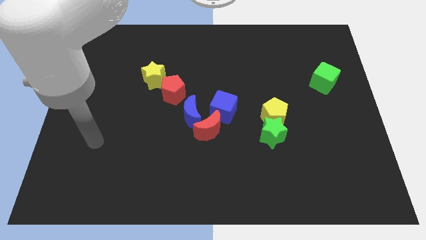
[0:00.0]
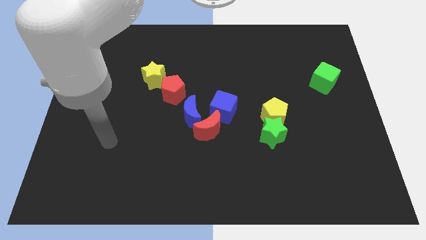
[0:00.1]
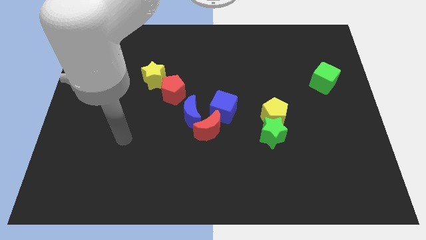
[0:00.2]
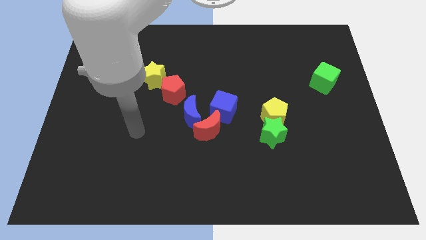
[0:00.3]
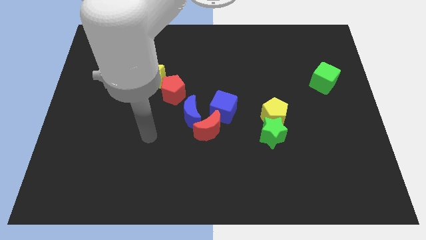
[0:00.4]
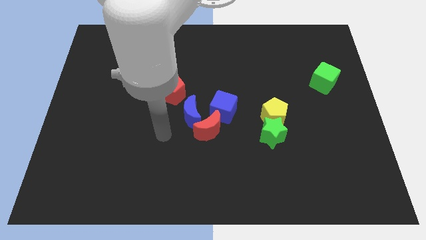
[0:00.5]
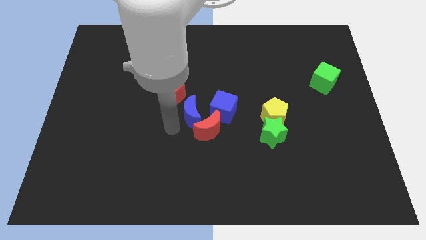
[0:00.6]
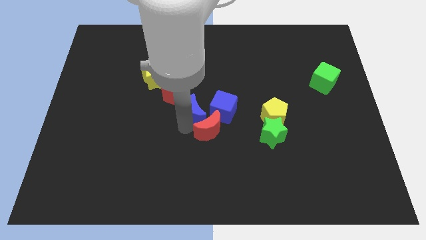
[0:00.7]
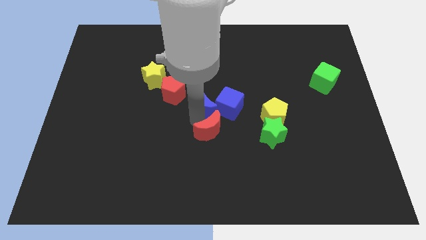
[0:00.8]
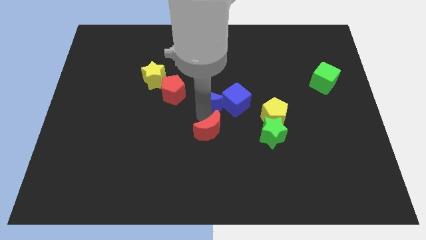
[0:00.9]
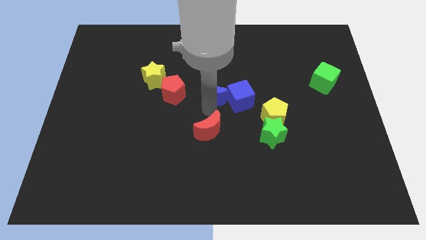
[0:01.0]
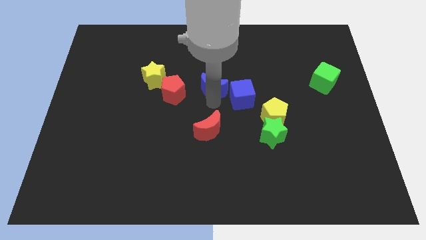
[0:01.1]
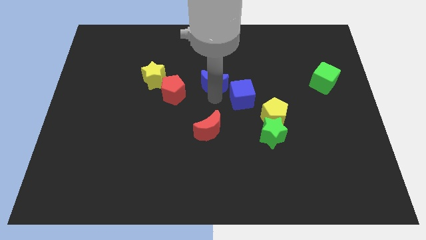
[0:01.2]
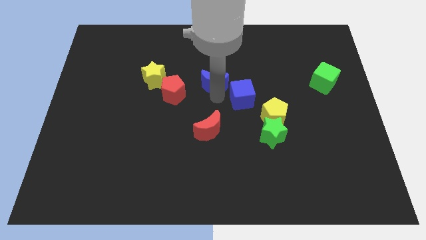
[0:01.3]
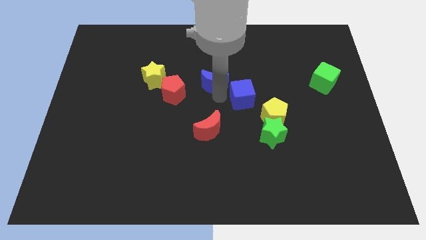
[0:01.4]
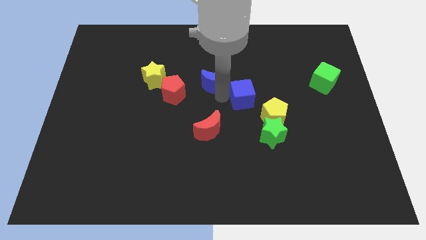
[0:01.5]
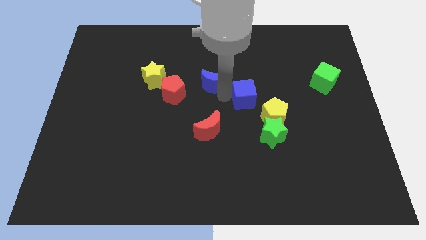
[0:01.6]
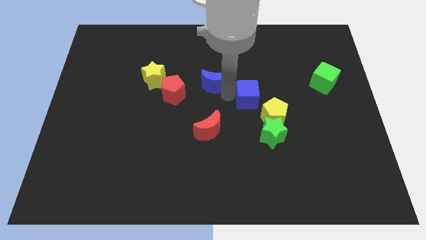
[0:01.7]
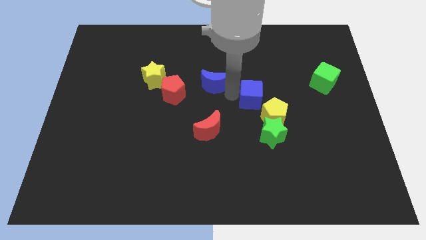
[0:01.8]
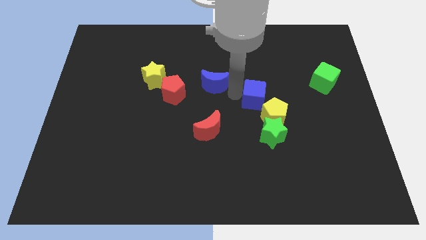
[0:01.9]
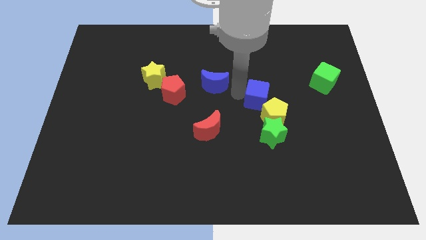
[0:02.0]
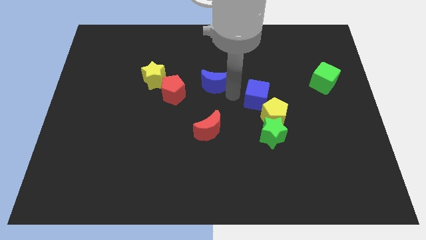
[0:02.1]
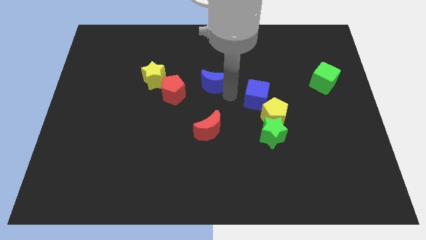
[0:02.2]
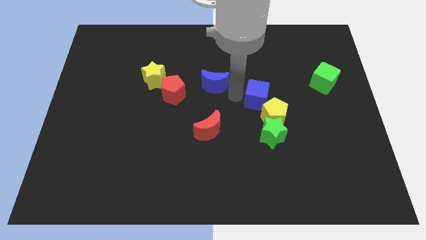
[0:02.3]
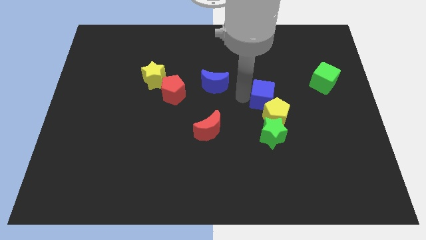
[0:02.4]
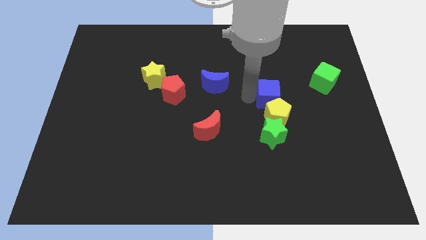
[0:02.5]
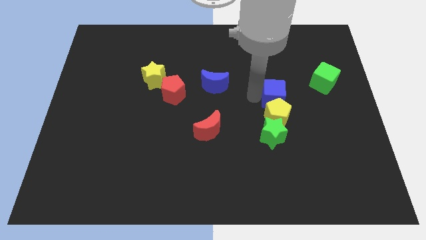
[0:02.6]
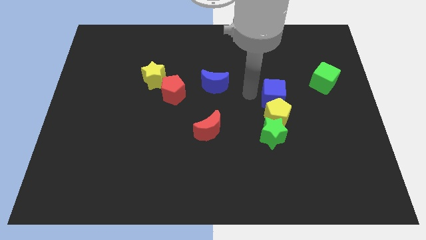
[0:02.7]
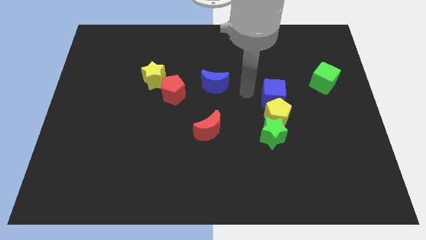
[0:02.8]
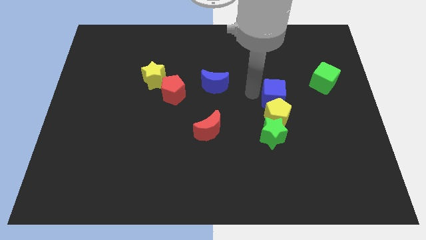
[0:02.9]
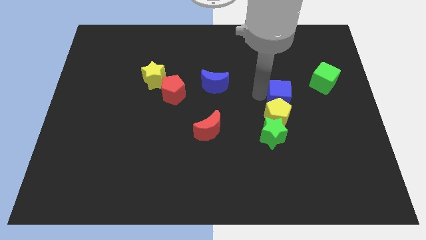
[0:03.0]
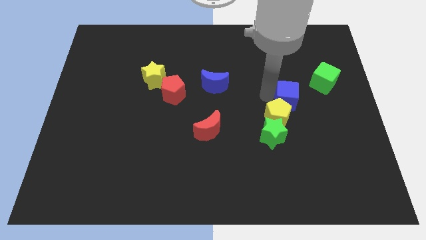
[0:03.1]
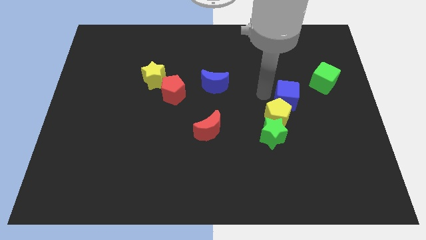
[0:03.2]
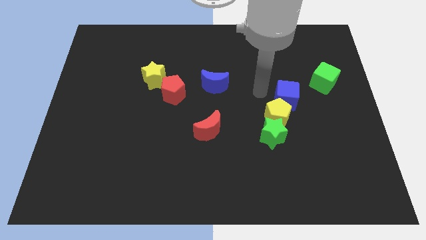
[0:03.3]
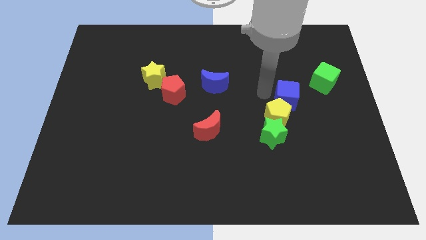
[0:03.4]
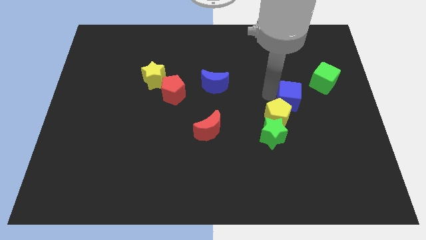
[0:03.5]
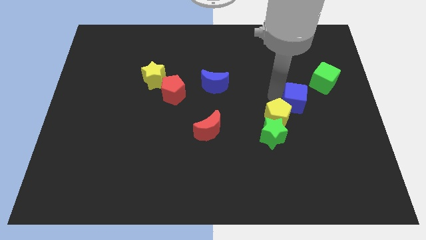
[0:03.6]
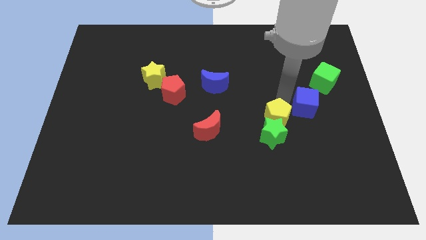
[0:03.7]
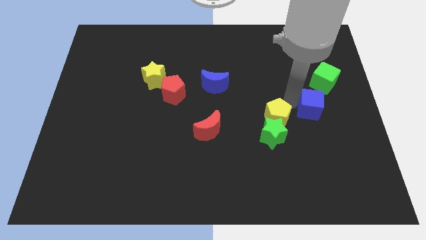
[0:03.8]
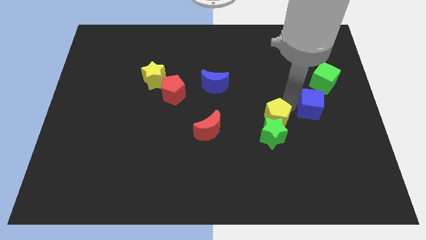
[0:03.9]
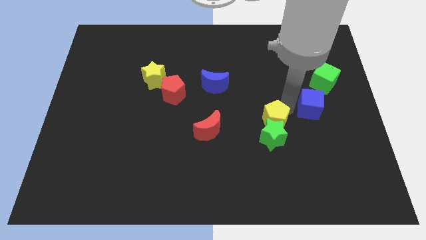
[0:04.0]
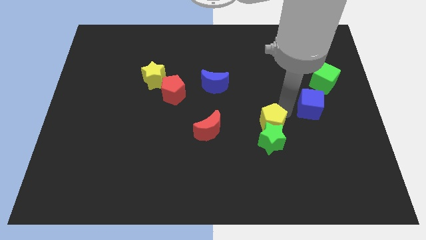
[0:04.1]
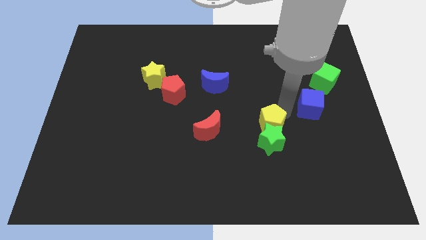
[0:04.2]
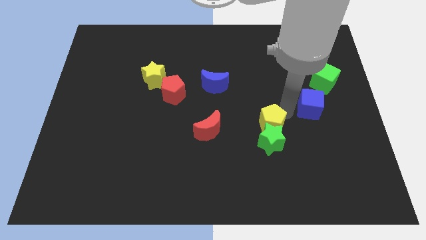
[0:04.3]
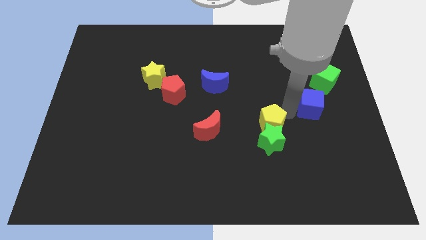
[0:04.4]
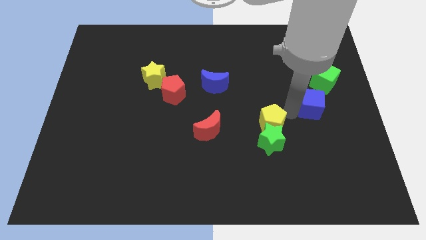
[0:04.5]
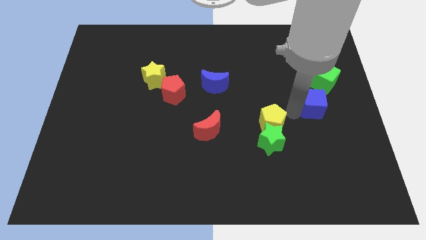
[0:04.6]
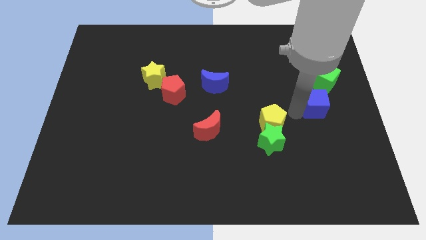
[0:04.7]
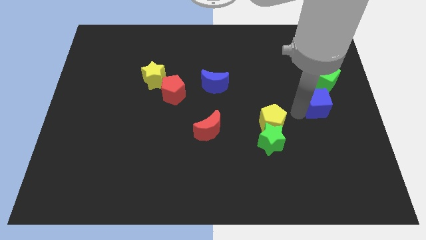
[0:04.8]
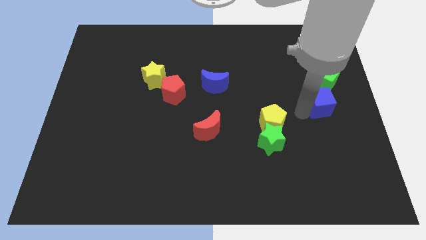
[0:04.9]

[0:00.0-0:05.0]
put the blue cube to the right side of the board

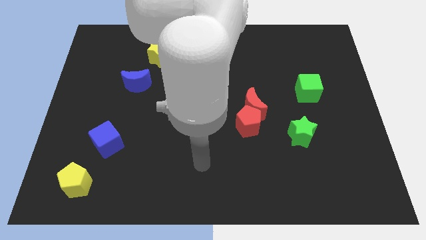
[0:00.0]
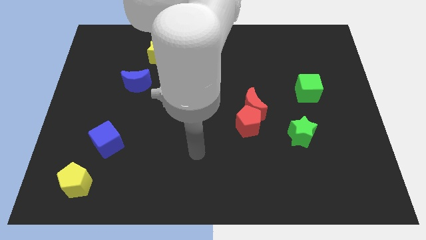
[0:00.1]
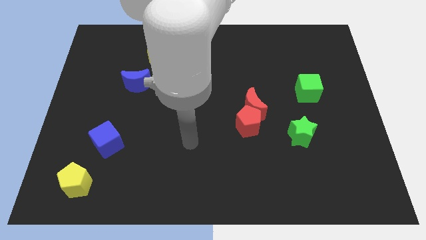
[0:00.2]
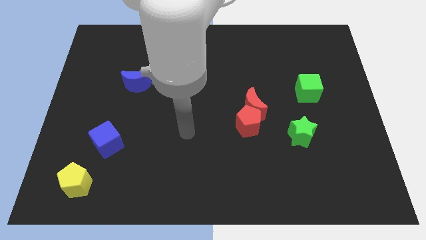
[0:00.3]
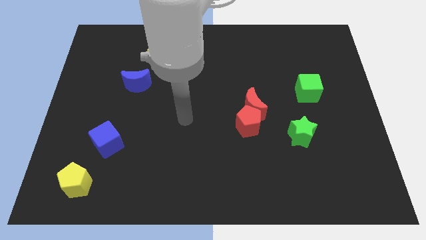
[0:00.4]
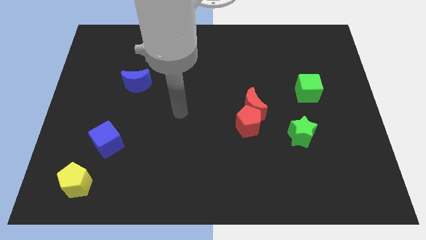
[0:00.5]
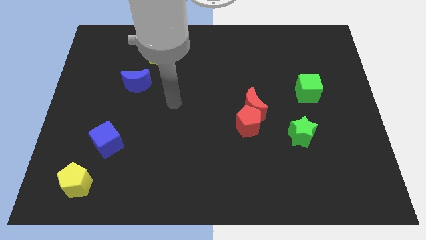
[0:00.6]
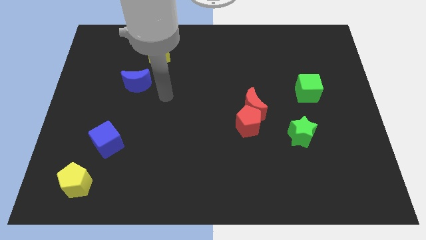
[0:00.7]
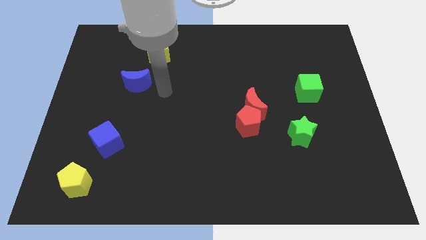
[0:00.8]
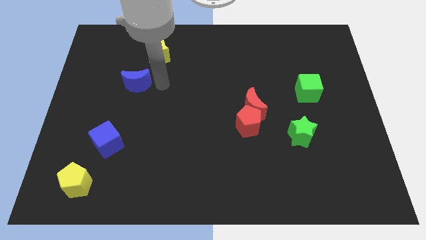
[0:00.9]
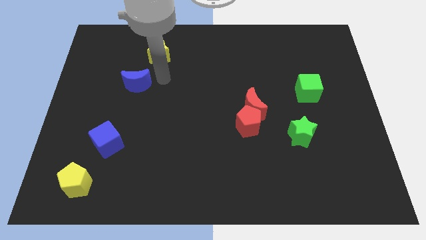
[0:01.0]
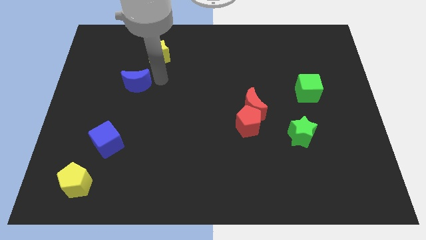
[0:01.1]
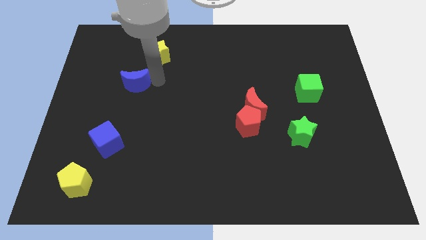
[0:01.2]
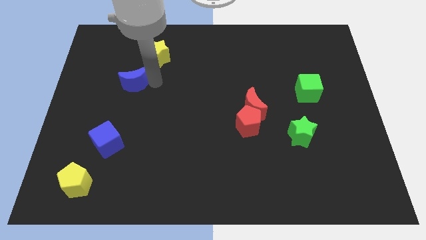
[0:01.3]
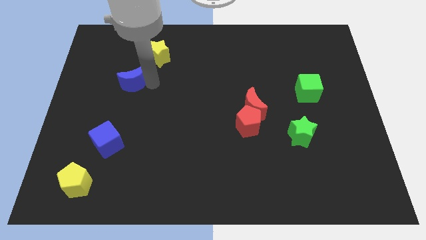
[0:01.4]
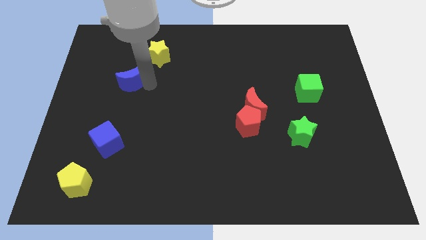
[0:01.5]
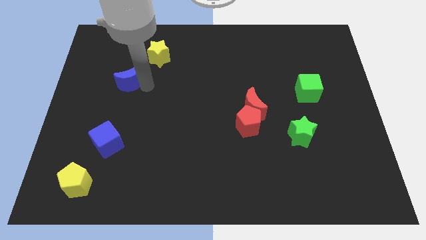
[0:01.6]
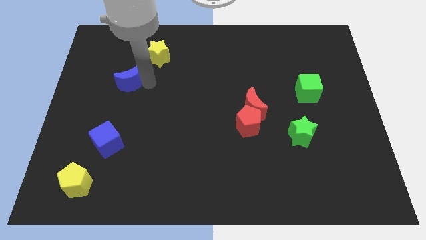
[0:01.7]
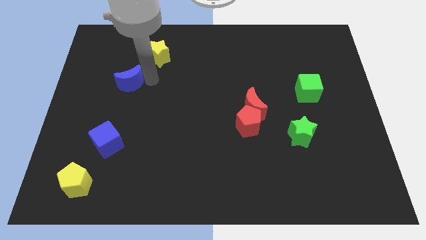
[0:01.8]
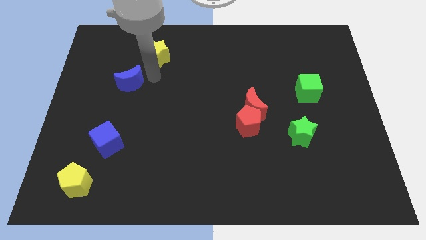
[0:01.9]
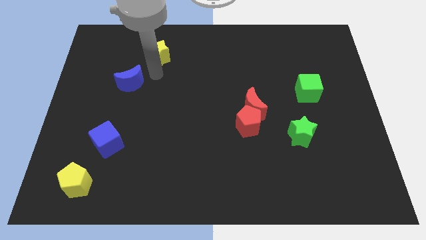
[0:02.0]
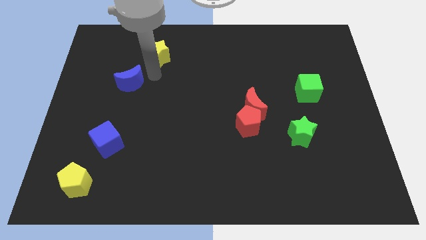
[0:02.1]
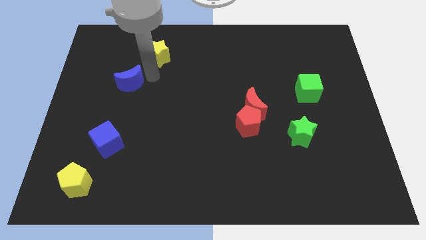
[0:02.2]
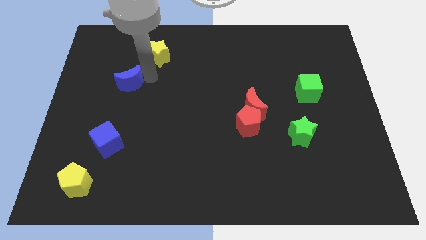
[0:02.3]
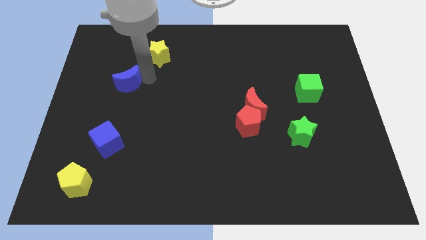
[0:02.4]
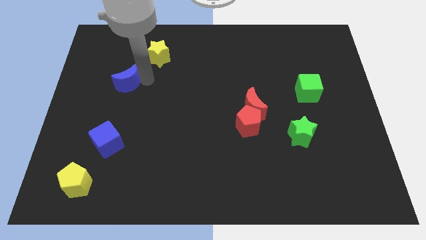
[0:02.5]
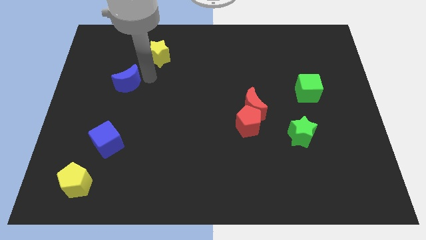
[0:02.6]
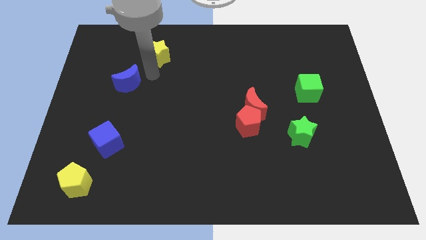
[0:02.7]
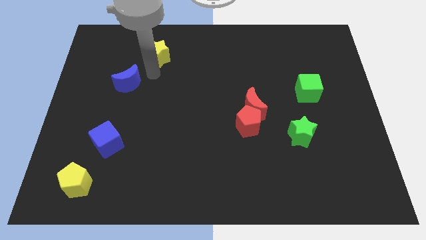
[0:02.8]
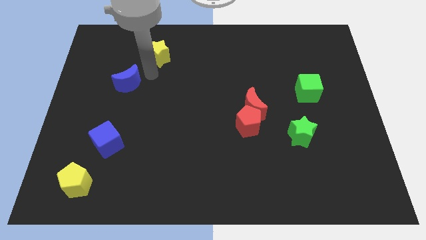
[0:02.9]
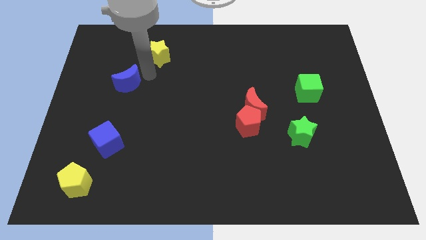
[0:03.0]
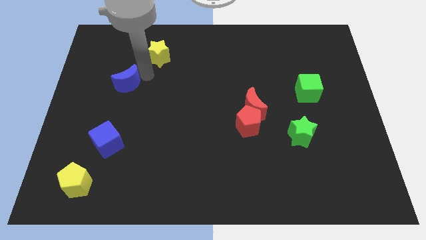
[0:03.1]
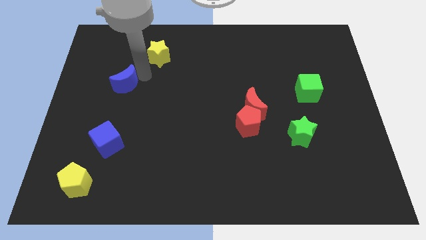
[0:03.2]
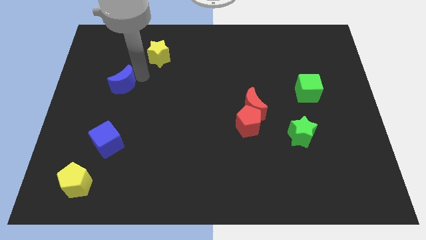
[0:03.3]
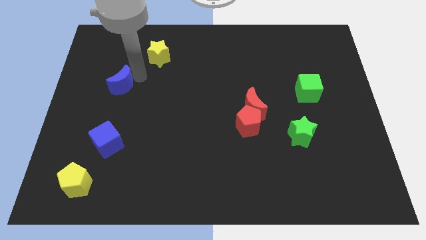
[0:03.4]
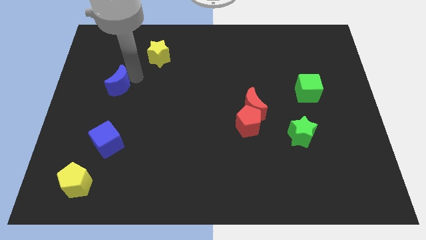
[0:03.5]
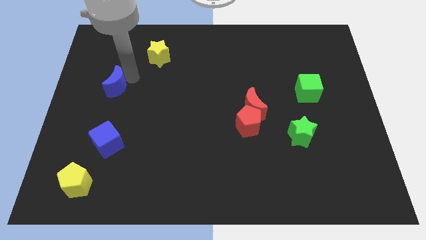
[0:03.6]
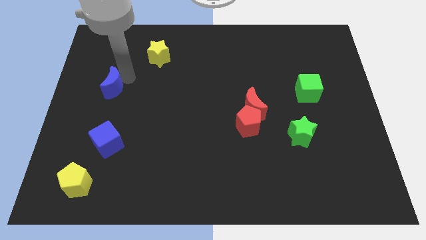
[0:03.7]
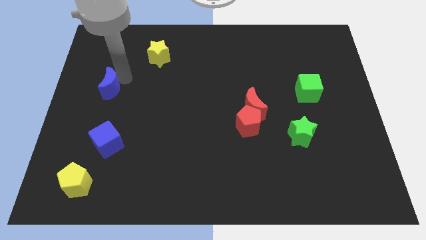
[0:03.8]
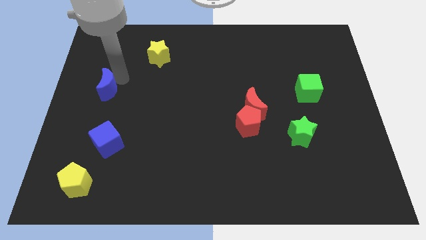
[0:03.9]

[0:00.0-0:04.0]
put the blue moon to the left side
